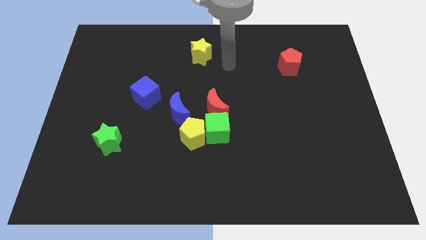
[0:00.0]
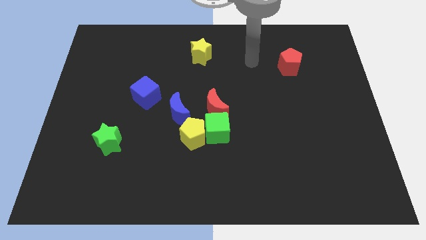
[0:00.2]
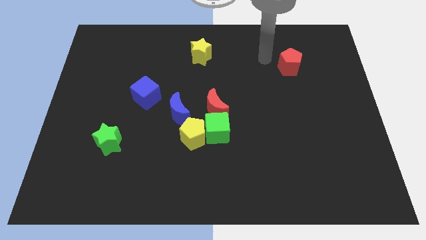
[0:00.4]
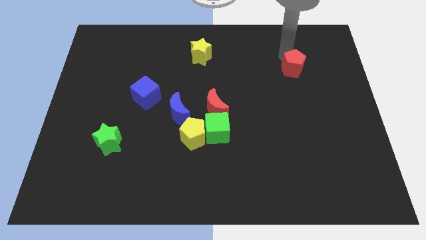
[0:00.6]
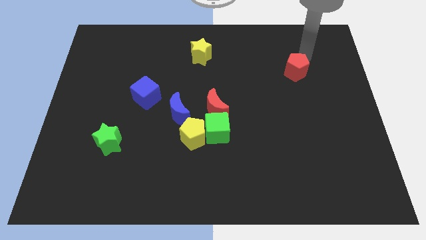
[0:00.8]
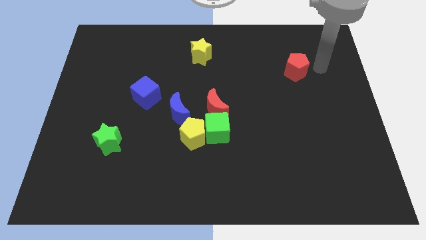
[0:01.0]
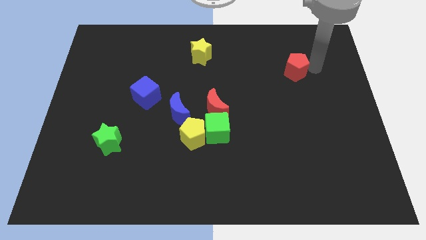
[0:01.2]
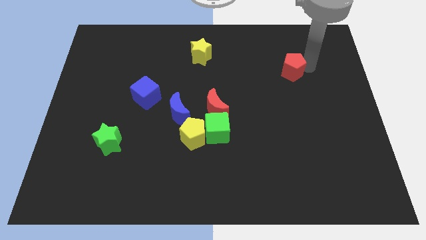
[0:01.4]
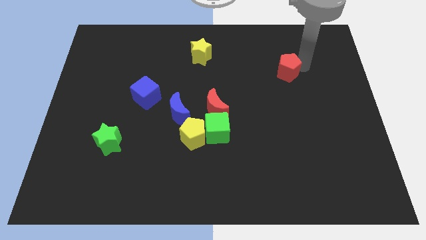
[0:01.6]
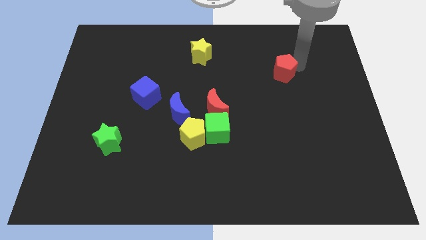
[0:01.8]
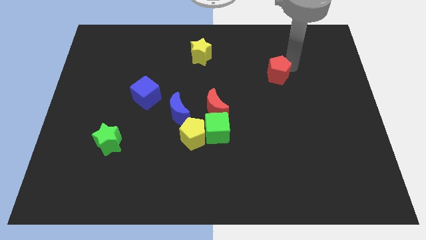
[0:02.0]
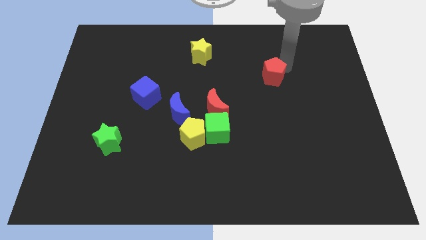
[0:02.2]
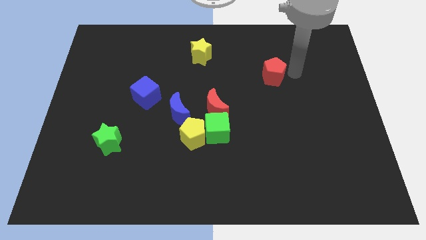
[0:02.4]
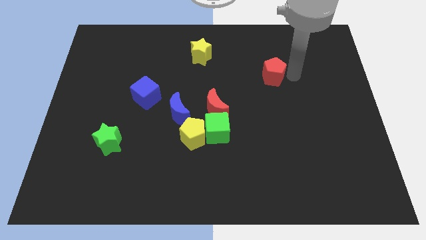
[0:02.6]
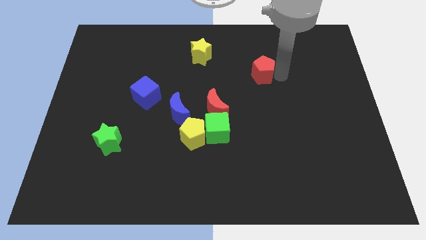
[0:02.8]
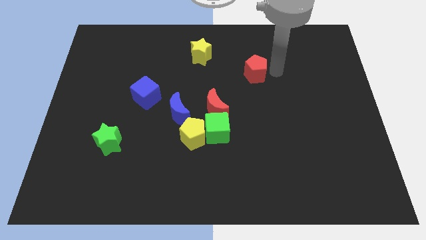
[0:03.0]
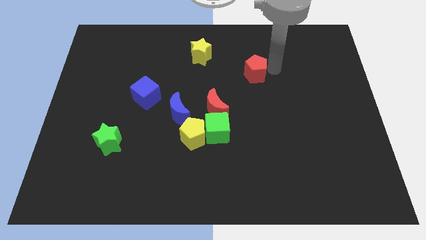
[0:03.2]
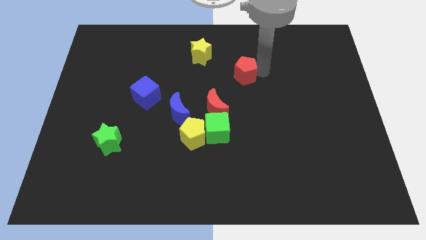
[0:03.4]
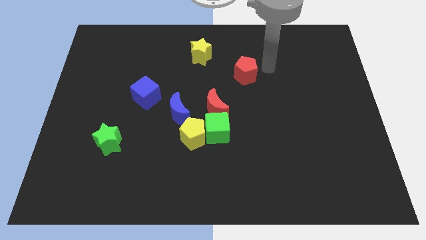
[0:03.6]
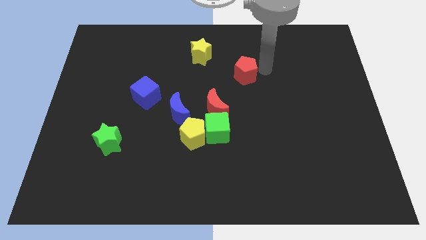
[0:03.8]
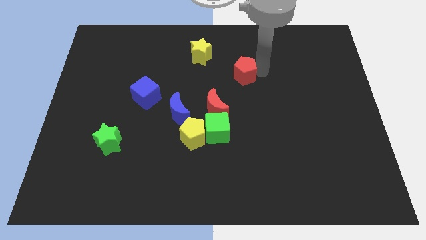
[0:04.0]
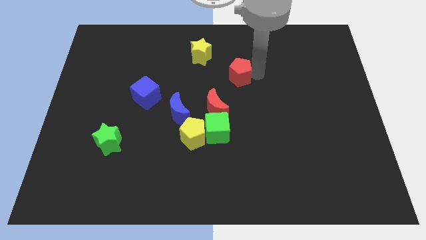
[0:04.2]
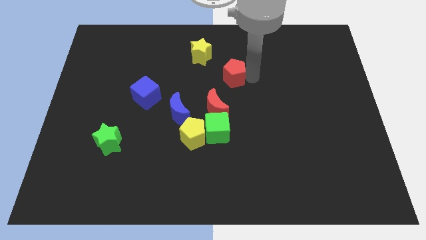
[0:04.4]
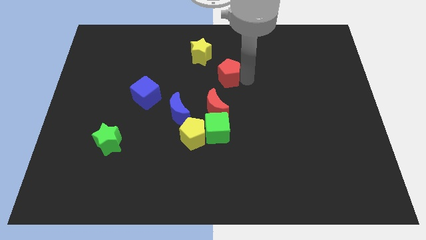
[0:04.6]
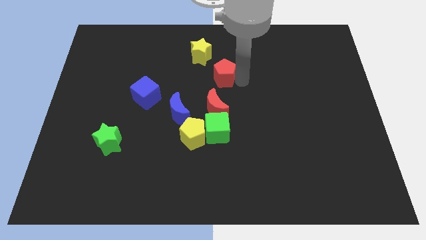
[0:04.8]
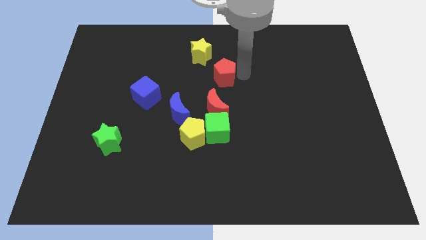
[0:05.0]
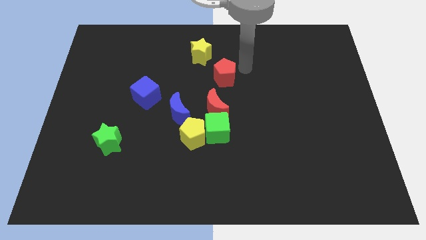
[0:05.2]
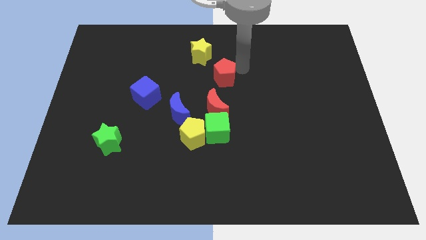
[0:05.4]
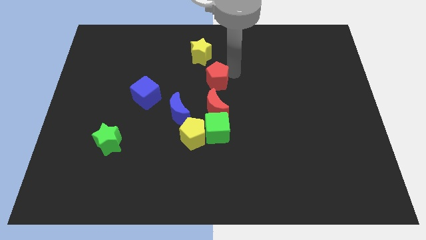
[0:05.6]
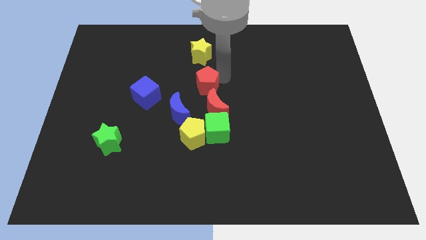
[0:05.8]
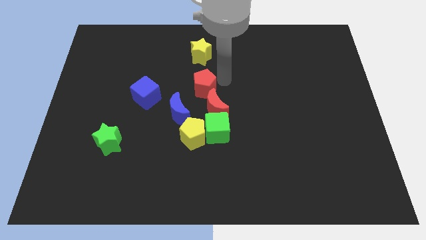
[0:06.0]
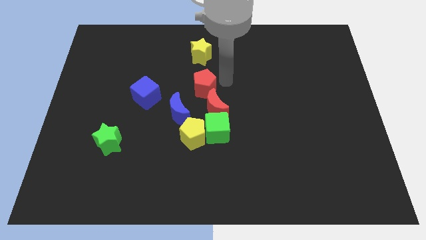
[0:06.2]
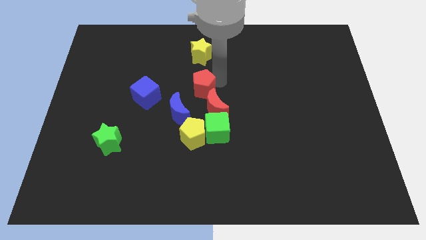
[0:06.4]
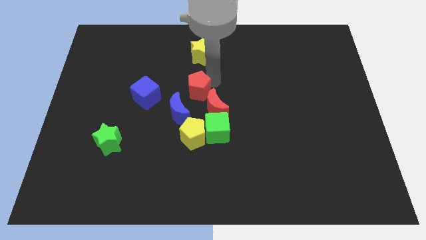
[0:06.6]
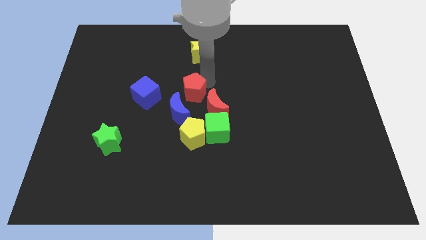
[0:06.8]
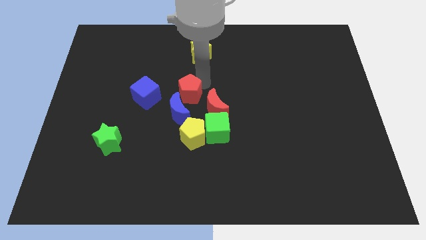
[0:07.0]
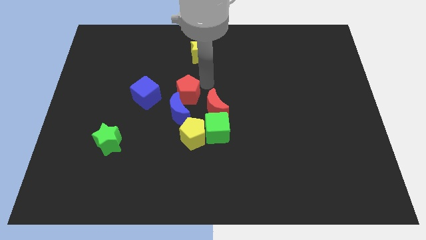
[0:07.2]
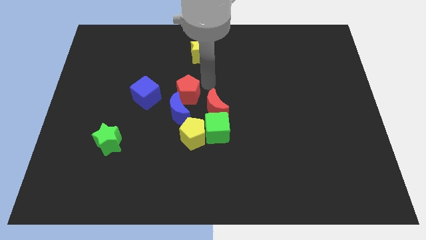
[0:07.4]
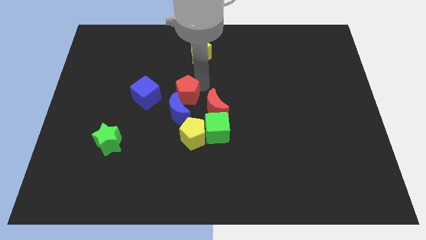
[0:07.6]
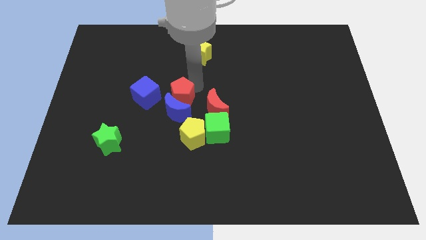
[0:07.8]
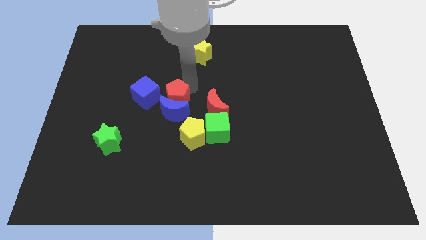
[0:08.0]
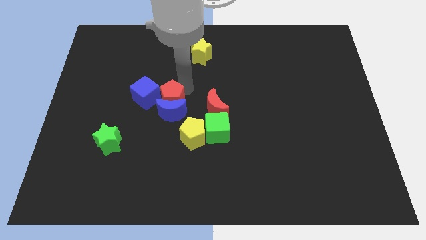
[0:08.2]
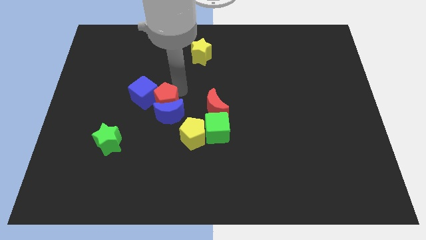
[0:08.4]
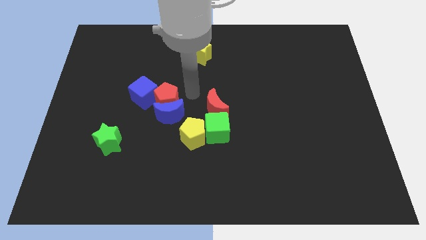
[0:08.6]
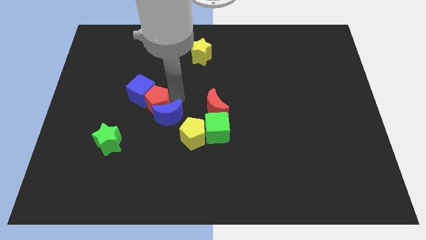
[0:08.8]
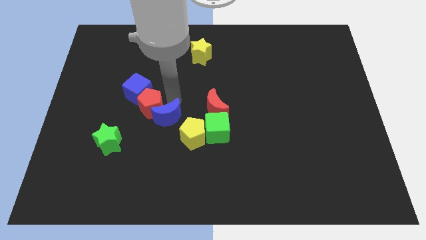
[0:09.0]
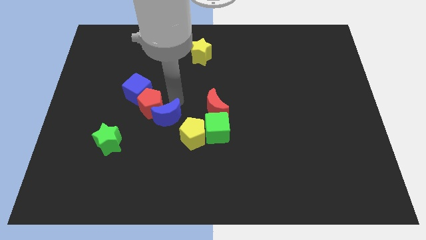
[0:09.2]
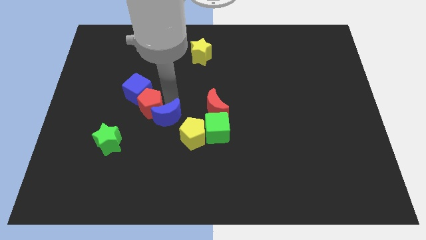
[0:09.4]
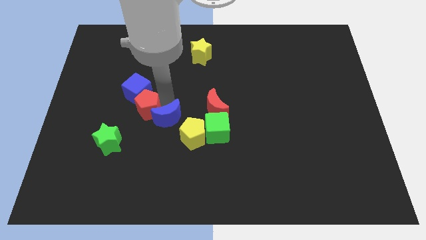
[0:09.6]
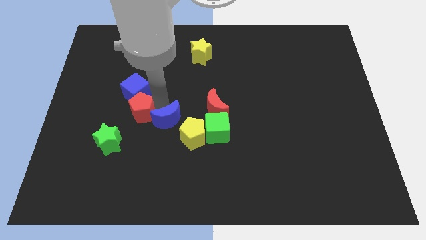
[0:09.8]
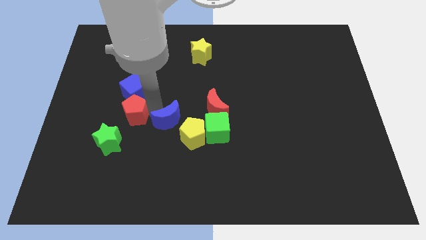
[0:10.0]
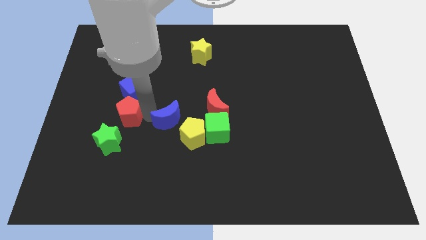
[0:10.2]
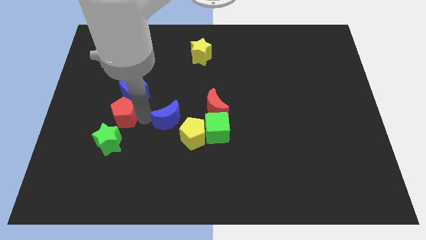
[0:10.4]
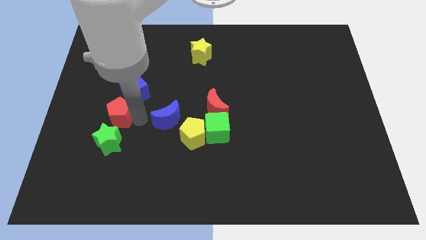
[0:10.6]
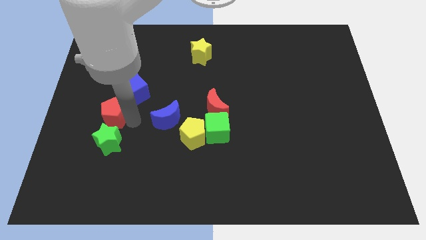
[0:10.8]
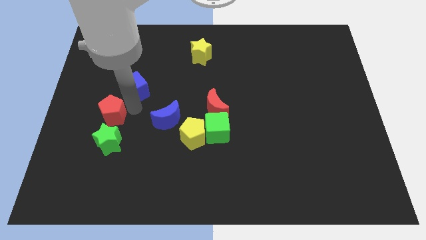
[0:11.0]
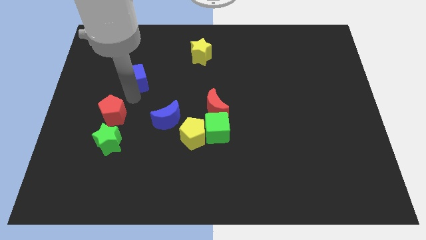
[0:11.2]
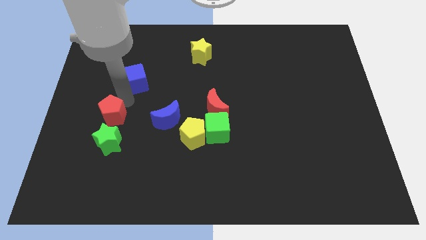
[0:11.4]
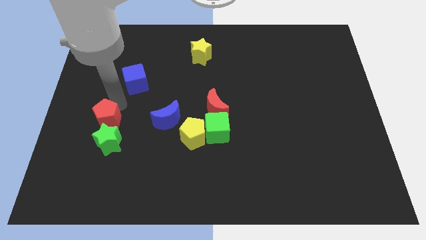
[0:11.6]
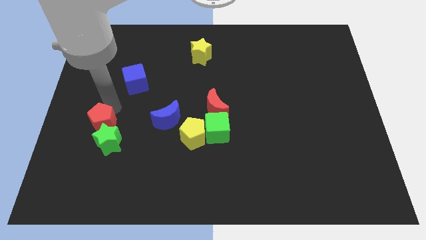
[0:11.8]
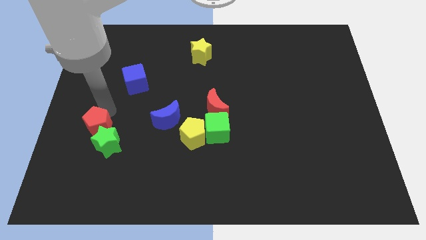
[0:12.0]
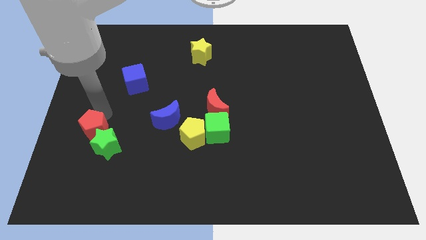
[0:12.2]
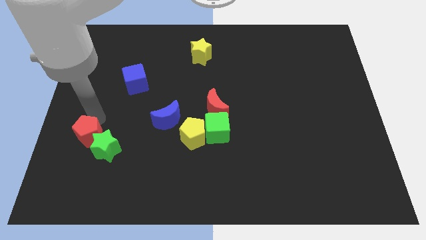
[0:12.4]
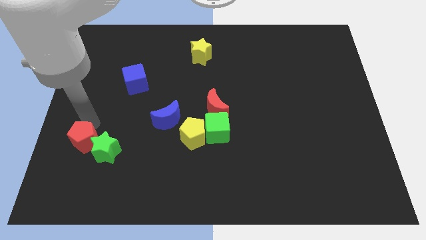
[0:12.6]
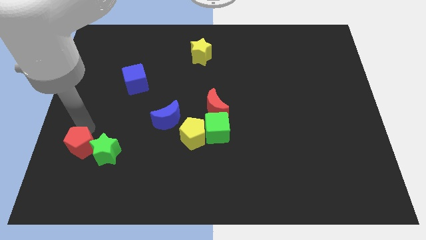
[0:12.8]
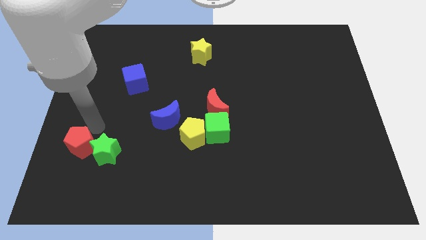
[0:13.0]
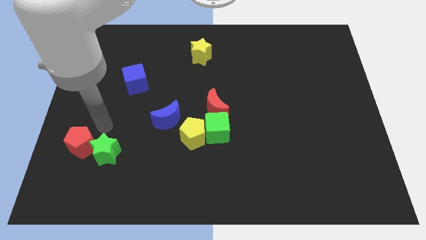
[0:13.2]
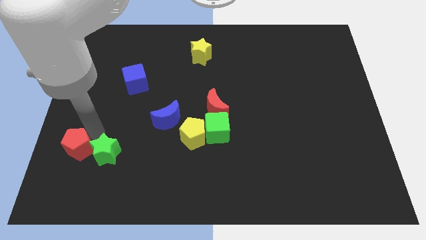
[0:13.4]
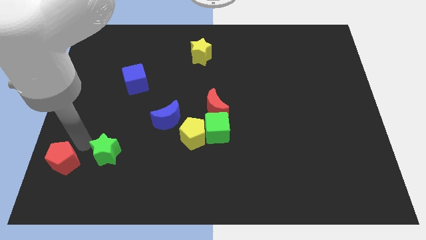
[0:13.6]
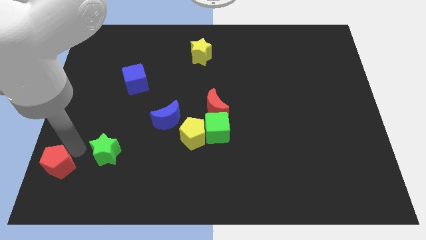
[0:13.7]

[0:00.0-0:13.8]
push the red pentagon to the bottom left
